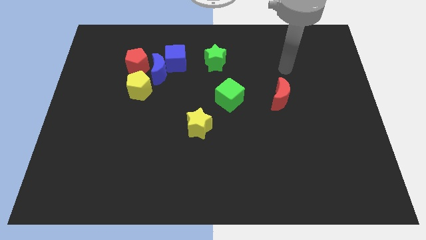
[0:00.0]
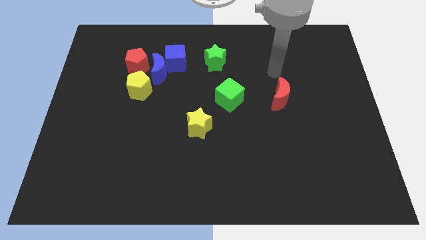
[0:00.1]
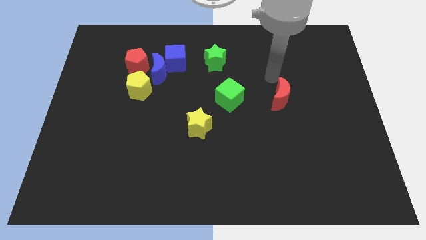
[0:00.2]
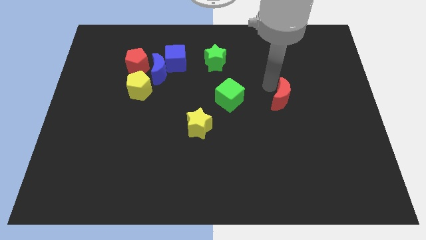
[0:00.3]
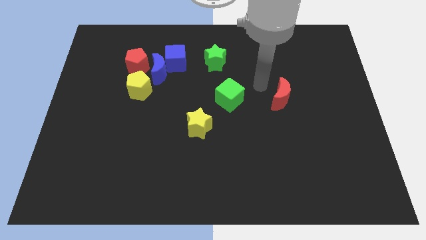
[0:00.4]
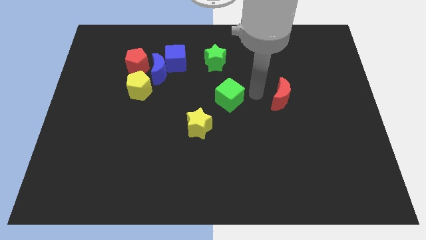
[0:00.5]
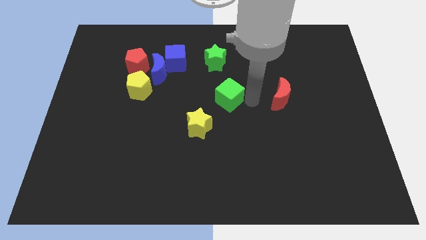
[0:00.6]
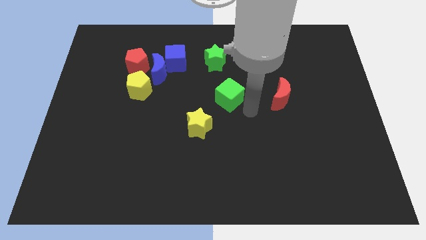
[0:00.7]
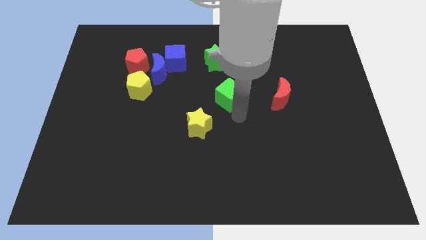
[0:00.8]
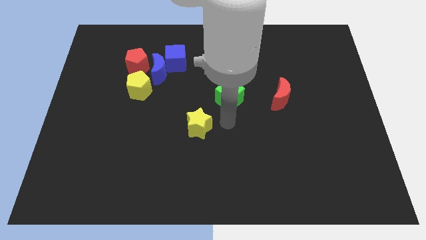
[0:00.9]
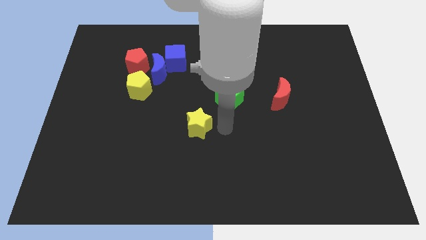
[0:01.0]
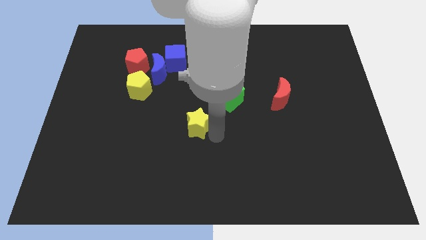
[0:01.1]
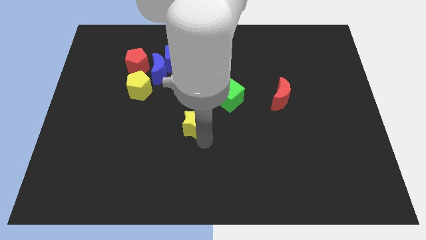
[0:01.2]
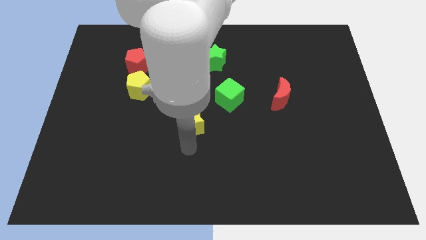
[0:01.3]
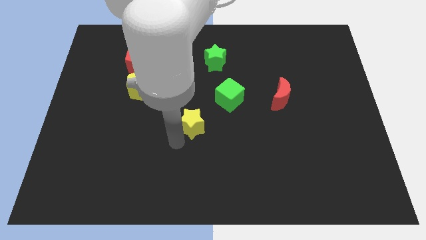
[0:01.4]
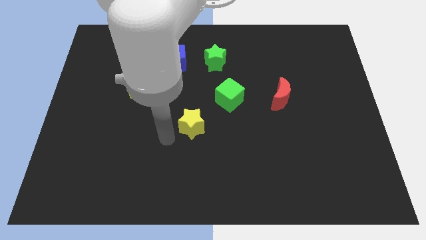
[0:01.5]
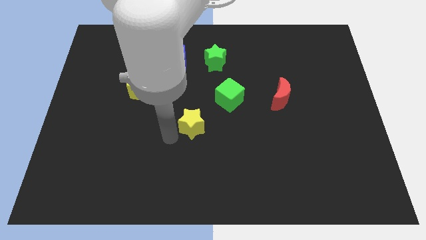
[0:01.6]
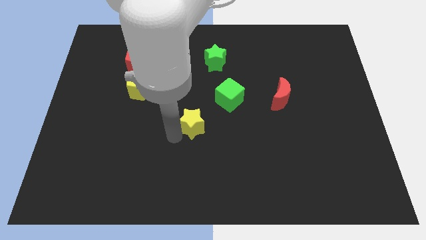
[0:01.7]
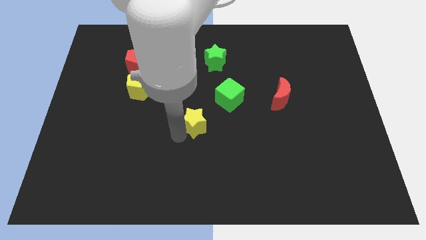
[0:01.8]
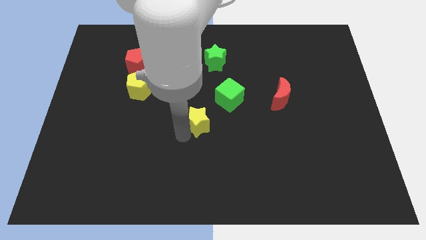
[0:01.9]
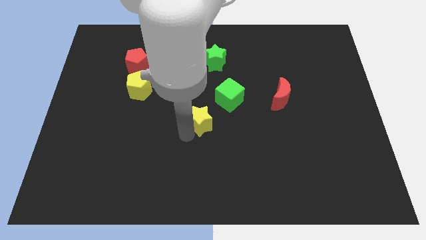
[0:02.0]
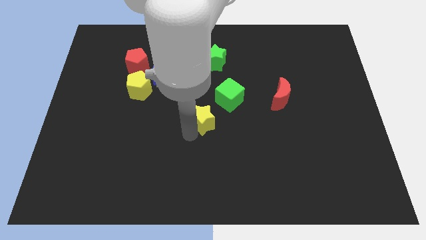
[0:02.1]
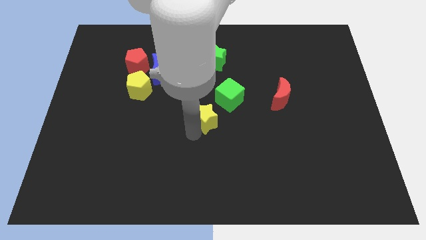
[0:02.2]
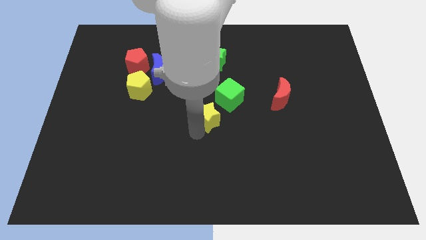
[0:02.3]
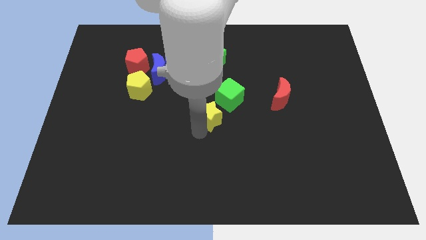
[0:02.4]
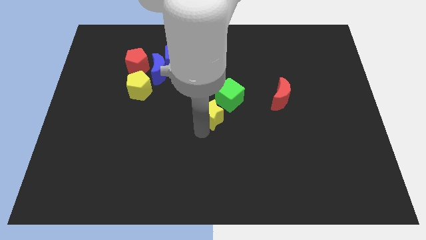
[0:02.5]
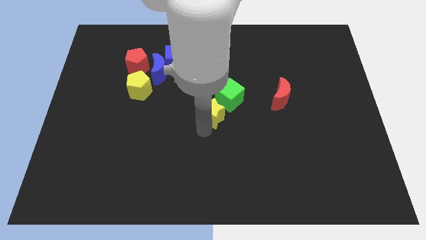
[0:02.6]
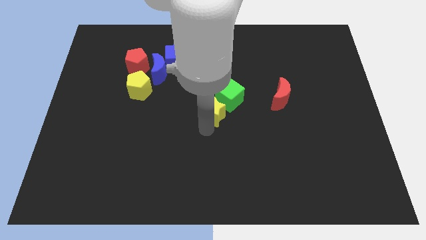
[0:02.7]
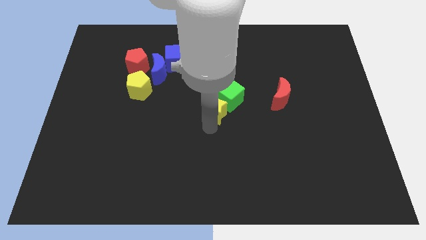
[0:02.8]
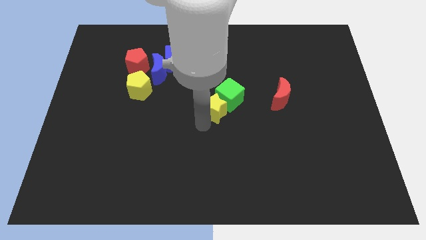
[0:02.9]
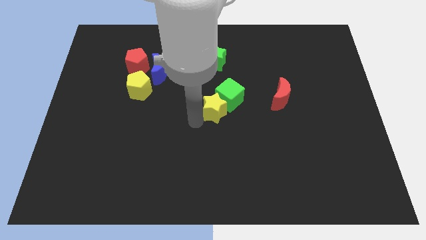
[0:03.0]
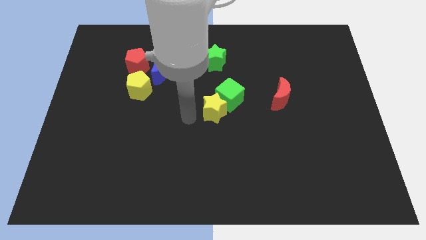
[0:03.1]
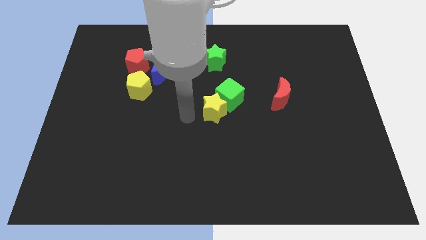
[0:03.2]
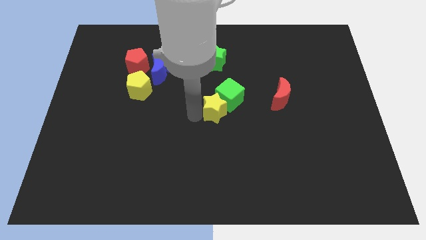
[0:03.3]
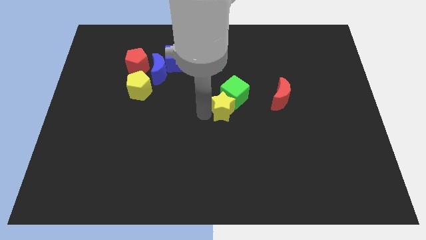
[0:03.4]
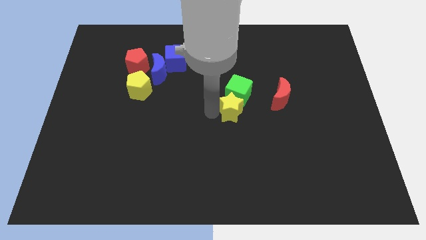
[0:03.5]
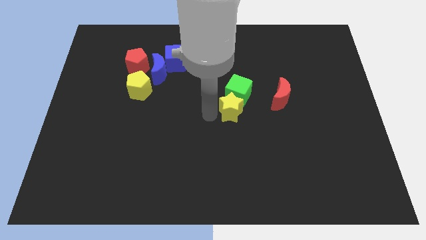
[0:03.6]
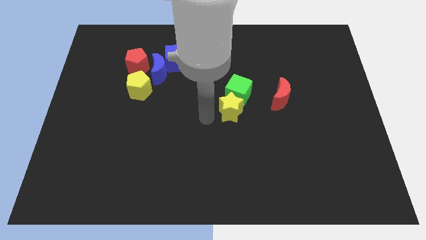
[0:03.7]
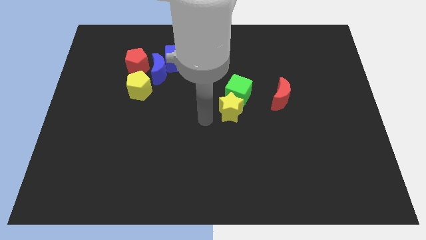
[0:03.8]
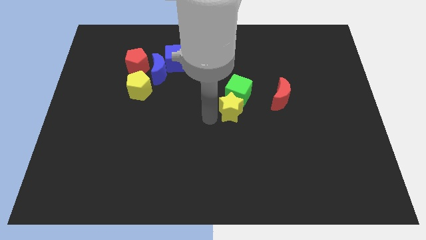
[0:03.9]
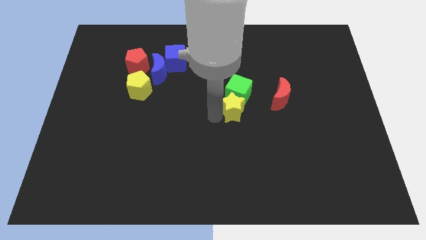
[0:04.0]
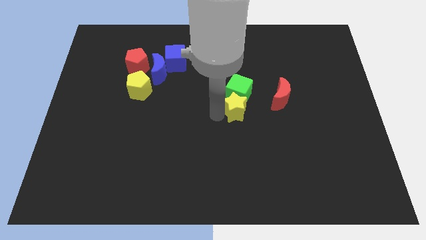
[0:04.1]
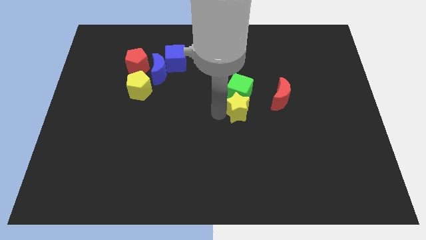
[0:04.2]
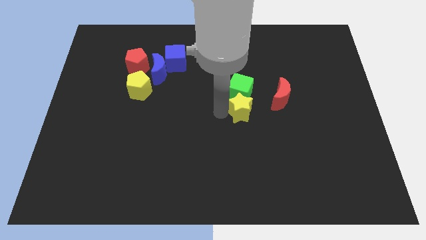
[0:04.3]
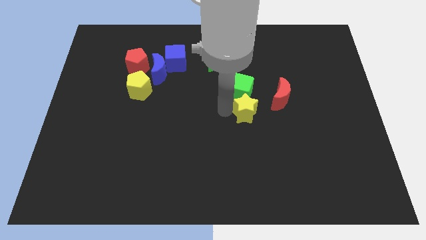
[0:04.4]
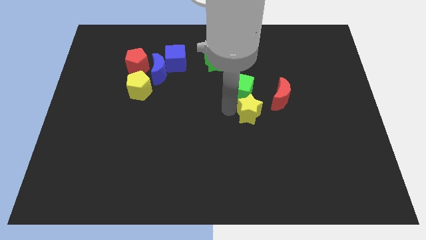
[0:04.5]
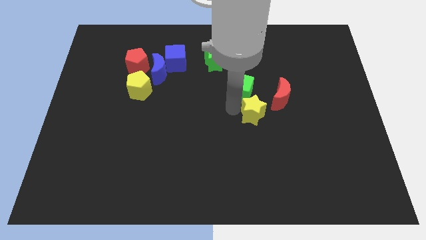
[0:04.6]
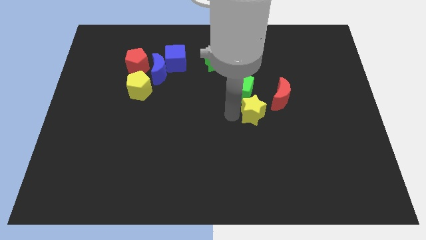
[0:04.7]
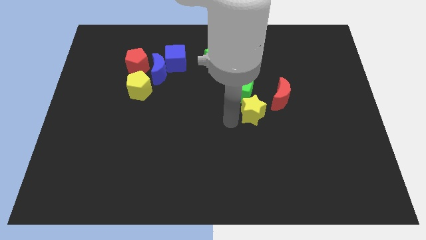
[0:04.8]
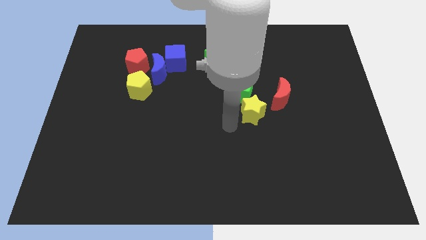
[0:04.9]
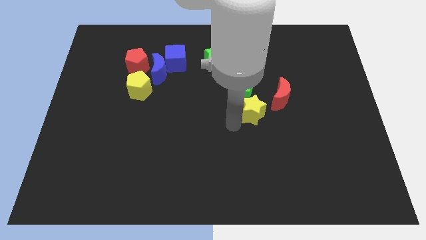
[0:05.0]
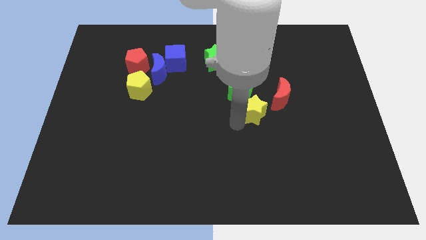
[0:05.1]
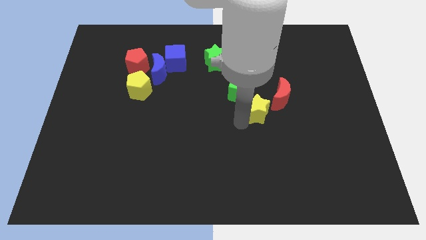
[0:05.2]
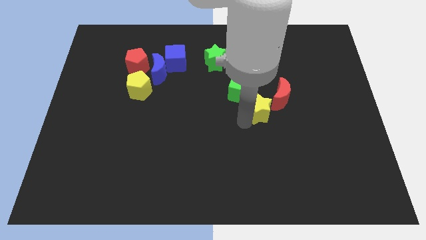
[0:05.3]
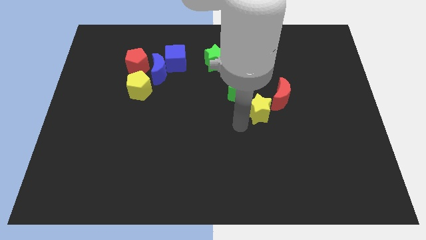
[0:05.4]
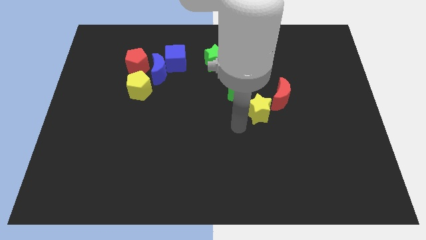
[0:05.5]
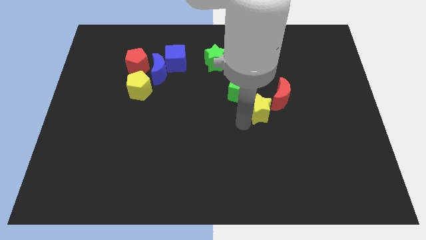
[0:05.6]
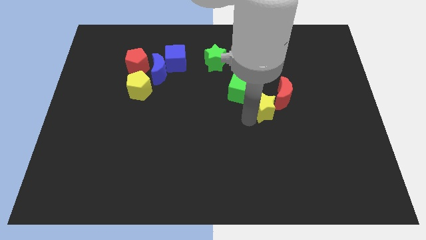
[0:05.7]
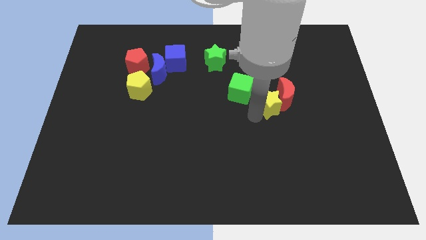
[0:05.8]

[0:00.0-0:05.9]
push the yellow star close to the red moon

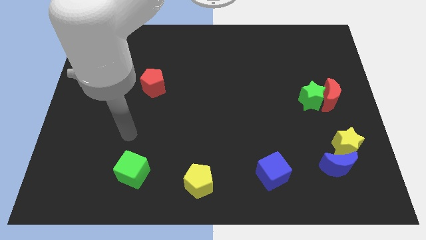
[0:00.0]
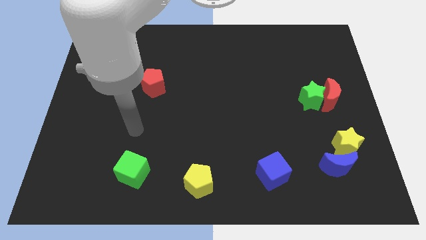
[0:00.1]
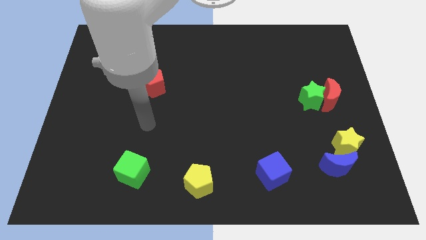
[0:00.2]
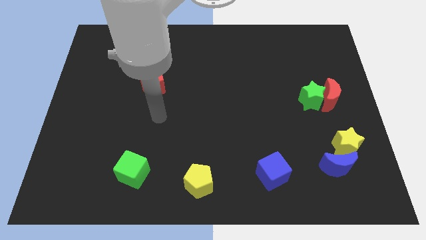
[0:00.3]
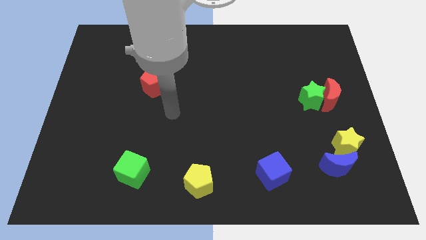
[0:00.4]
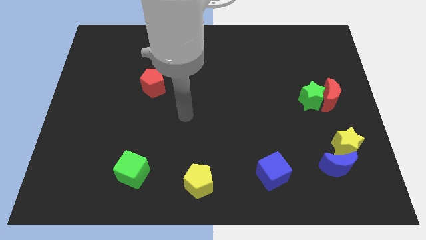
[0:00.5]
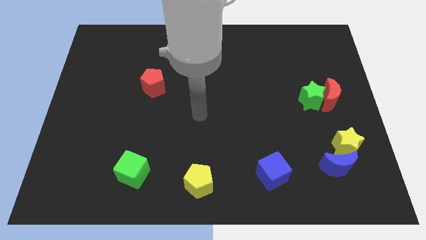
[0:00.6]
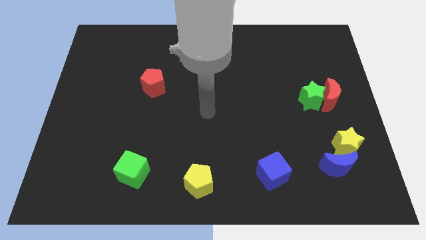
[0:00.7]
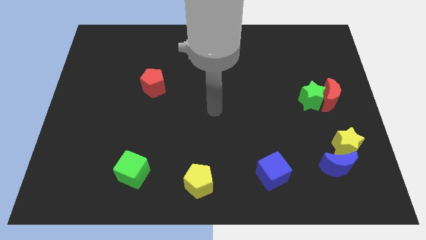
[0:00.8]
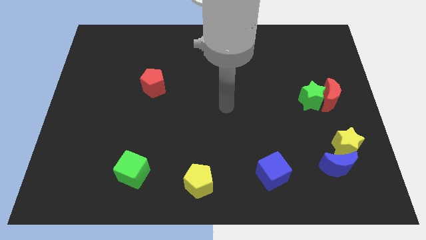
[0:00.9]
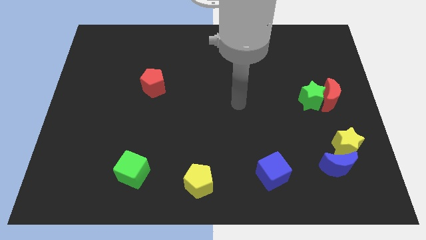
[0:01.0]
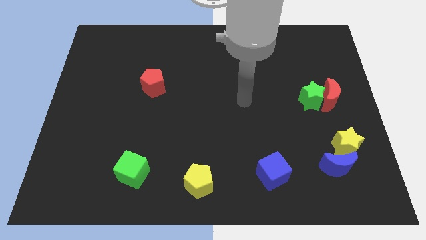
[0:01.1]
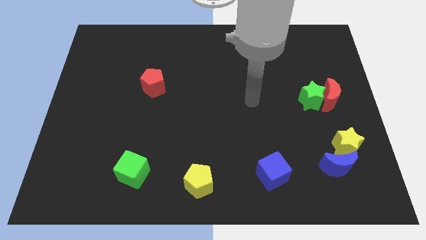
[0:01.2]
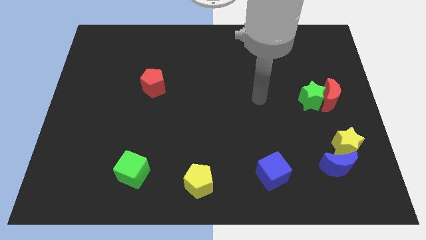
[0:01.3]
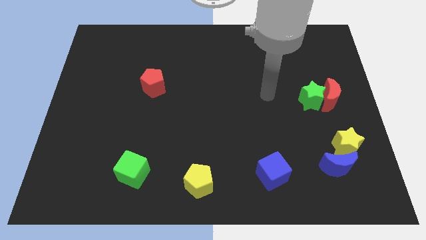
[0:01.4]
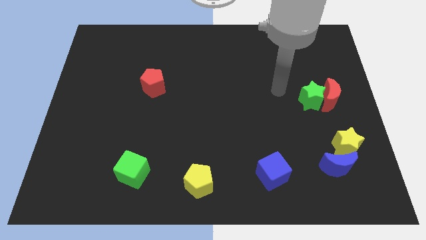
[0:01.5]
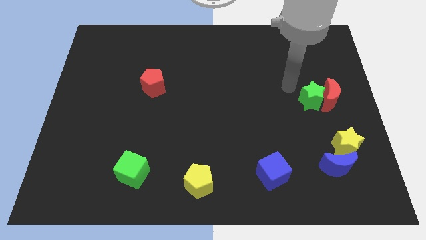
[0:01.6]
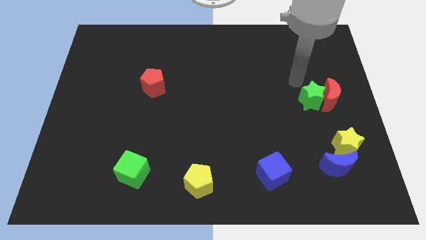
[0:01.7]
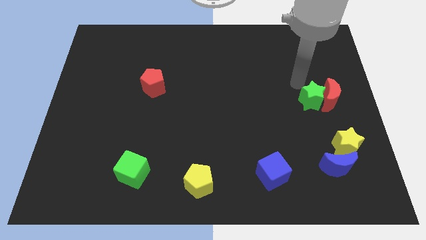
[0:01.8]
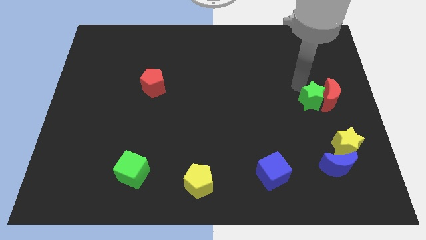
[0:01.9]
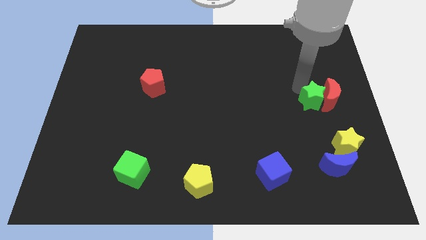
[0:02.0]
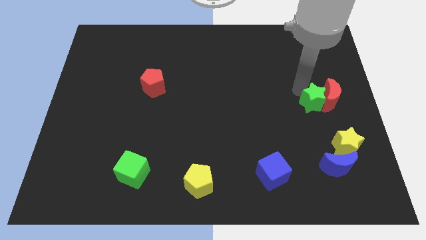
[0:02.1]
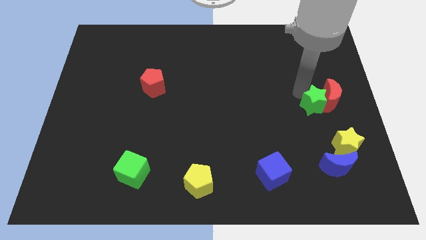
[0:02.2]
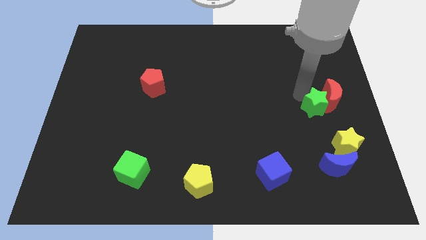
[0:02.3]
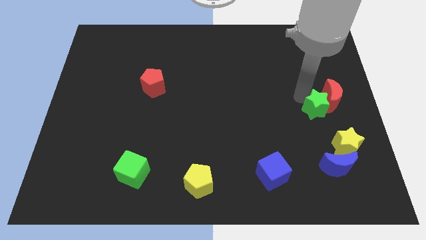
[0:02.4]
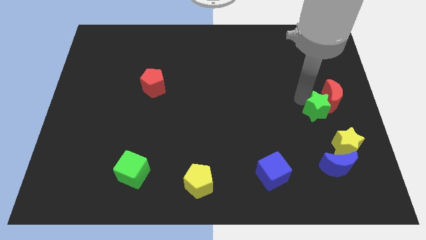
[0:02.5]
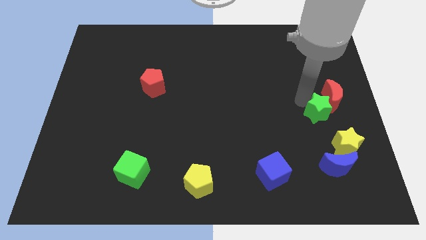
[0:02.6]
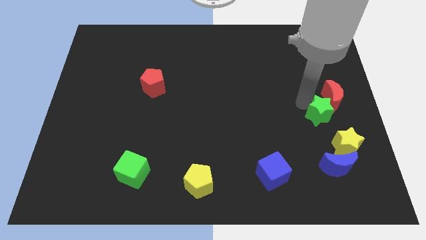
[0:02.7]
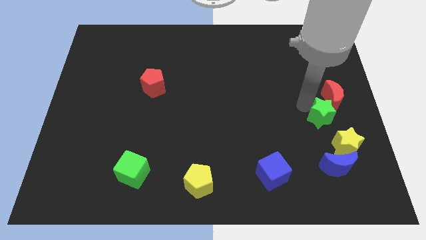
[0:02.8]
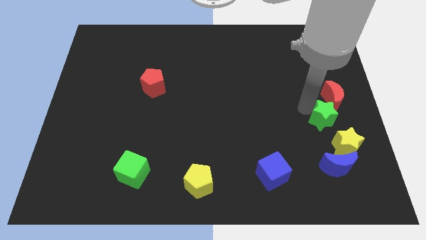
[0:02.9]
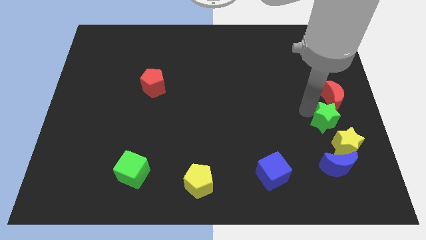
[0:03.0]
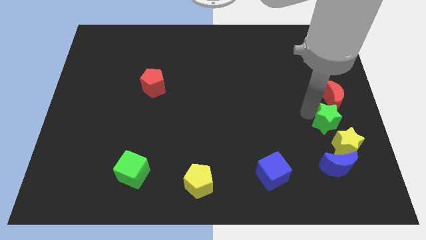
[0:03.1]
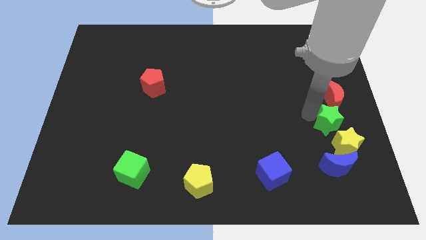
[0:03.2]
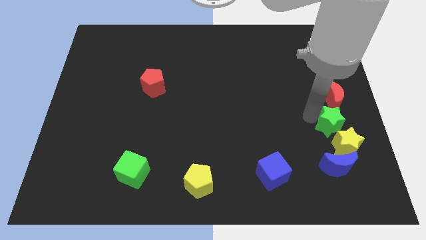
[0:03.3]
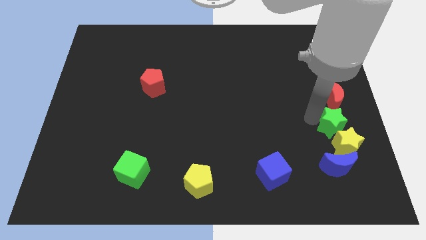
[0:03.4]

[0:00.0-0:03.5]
put the green star close to the yellow star
